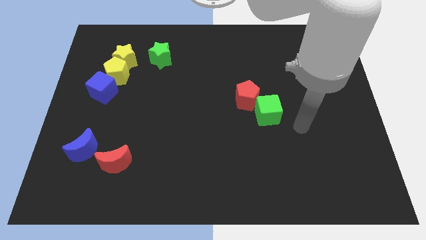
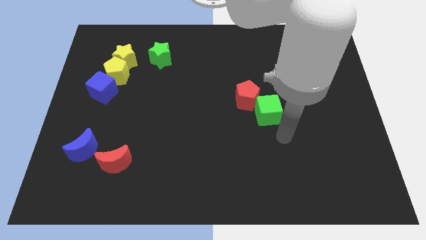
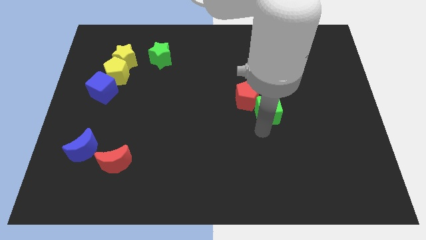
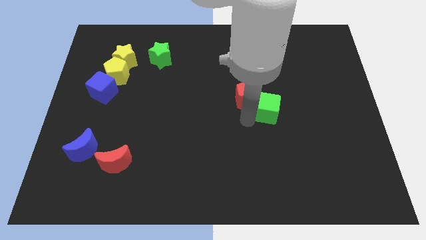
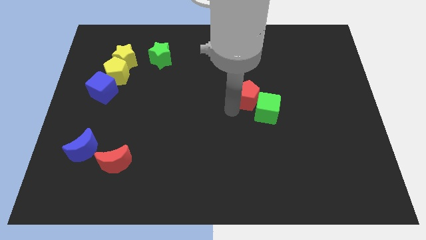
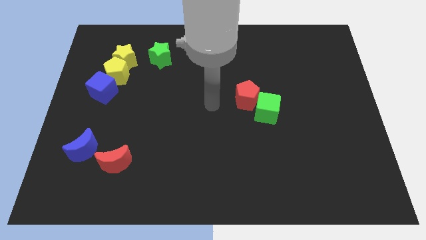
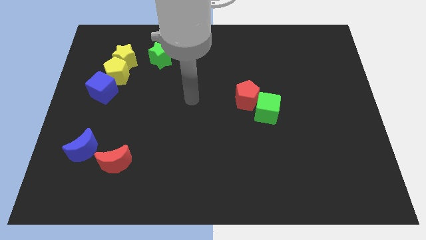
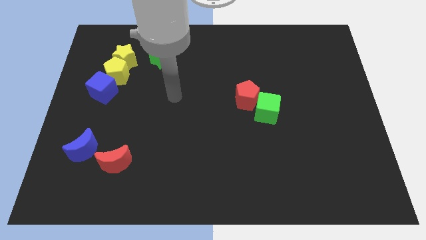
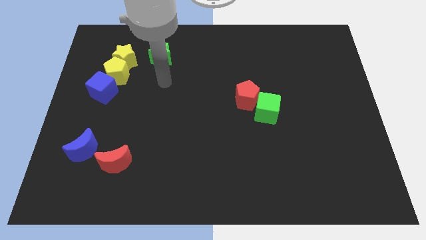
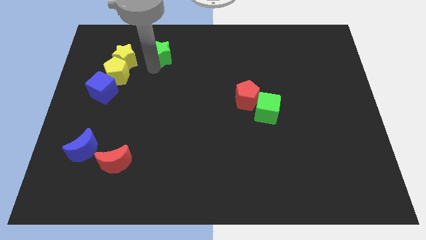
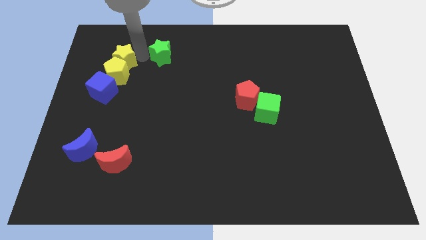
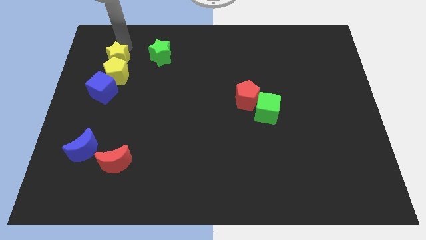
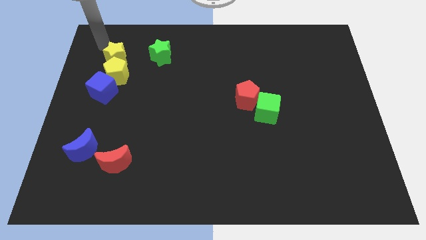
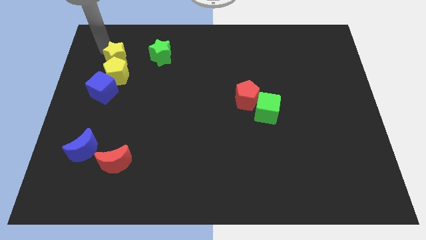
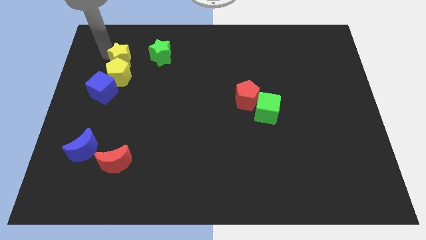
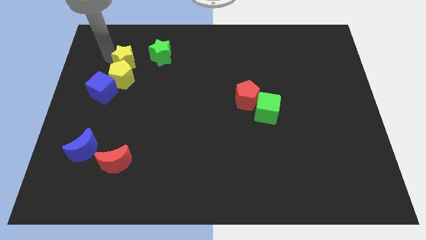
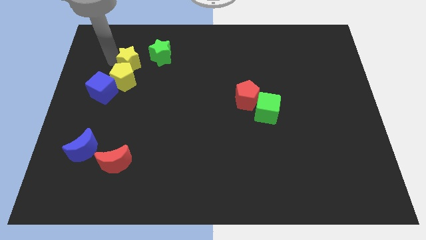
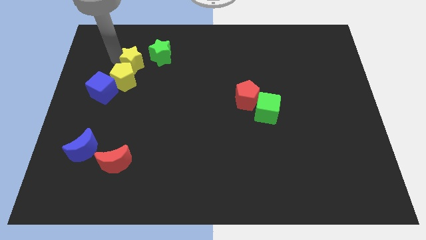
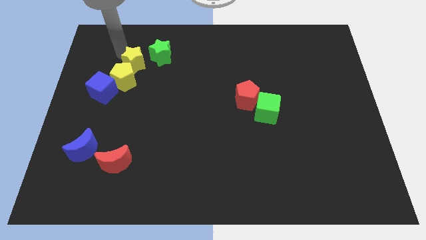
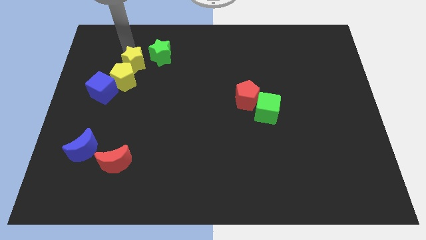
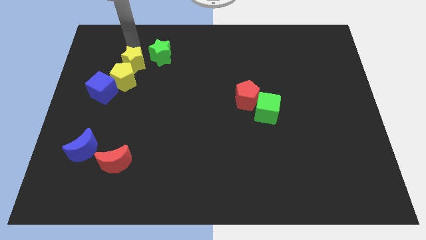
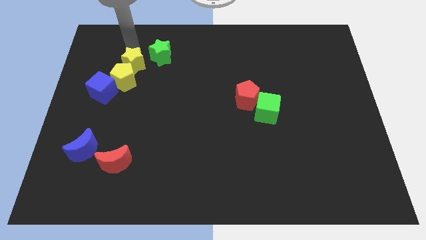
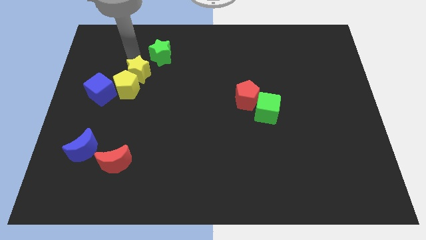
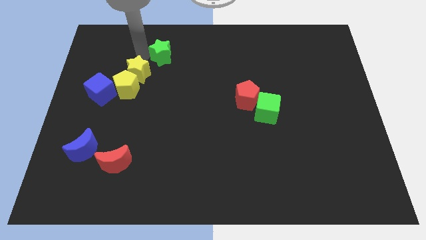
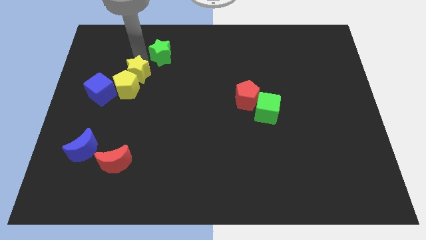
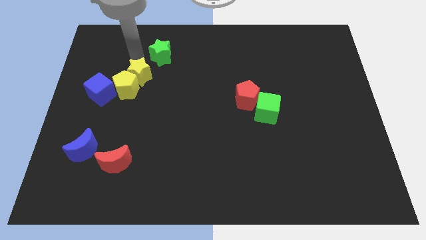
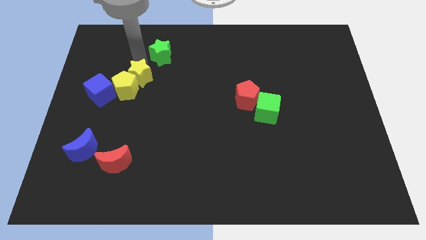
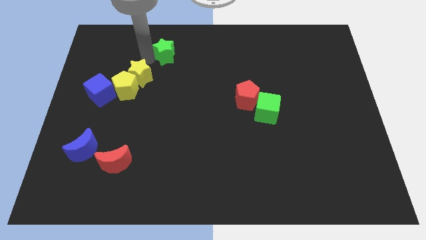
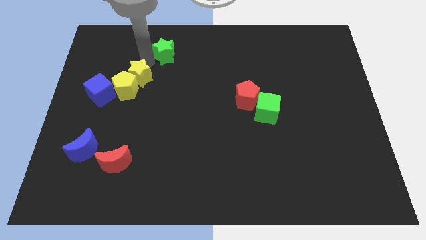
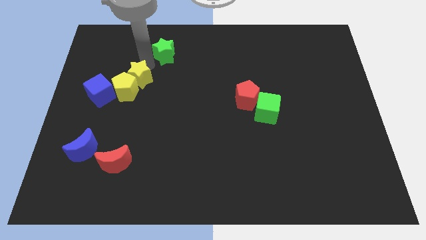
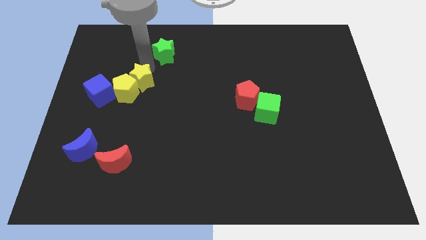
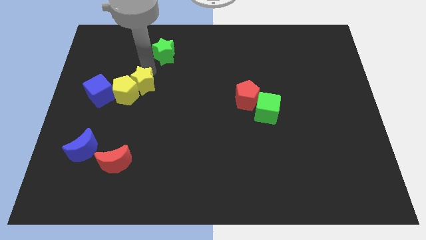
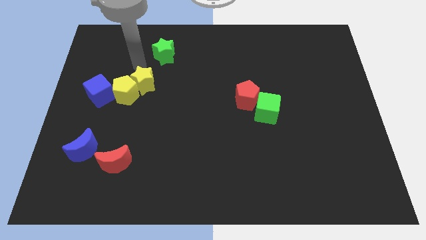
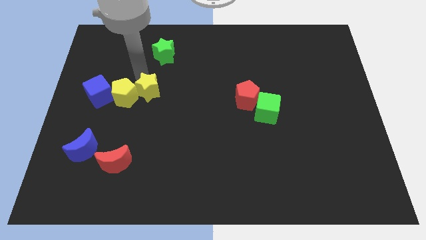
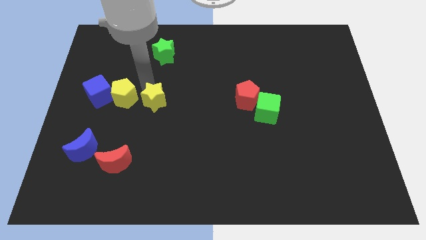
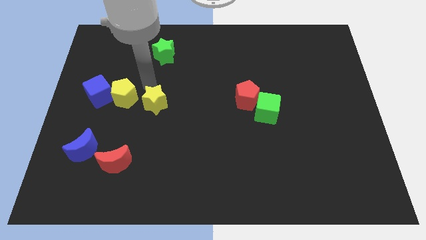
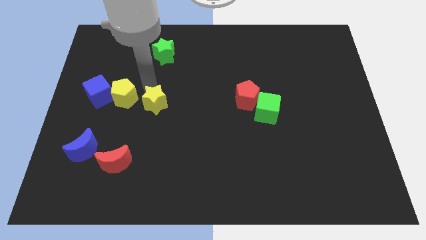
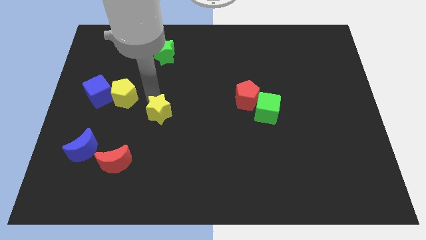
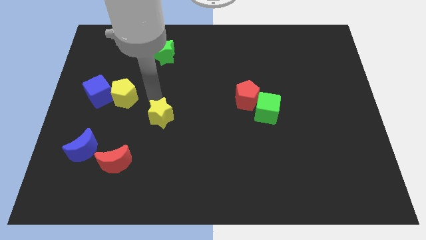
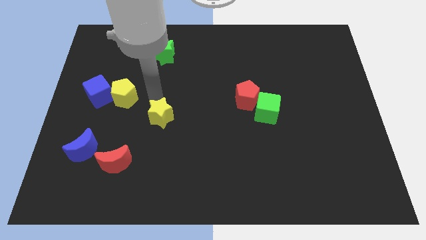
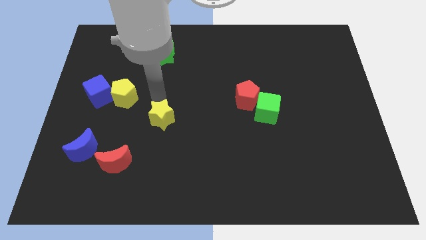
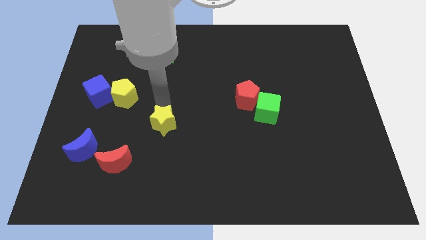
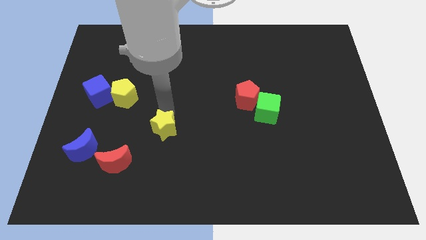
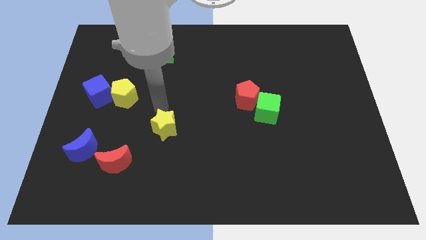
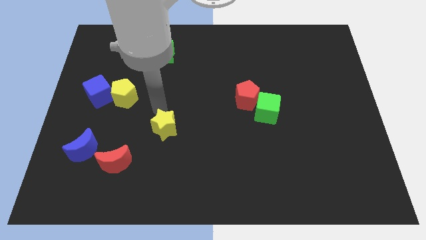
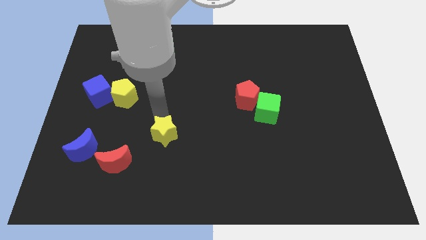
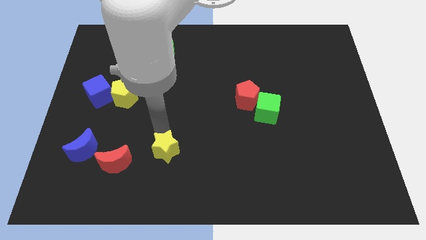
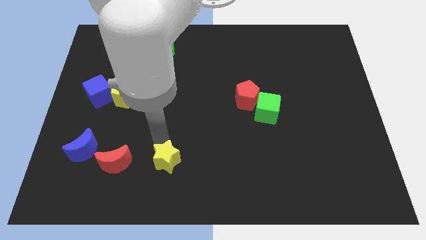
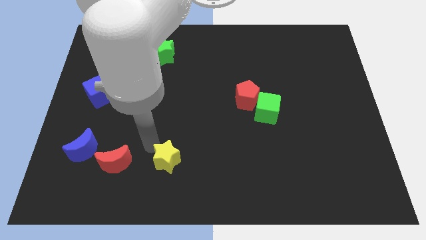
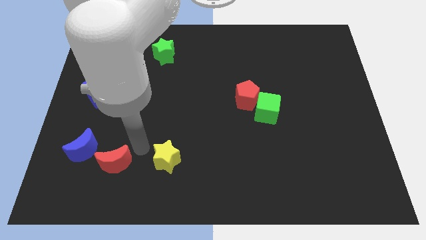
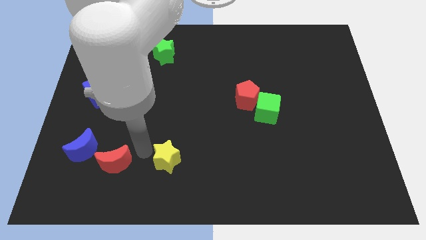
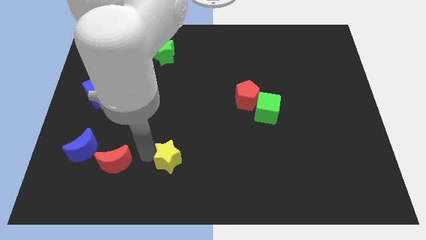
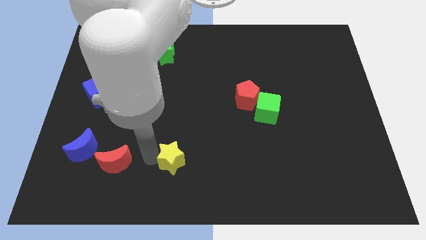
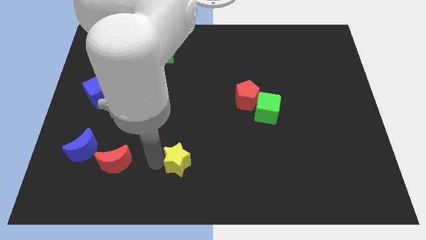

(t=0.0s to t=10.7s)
put the yellow star to the bottom side

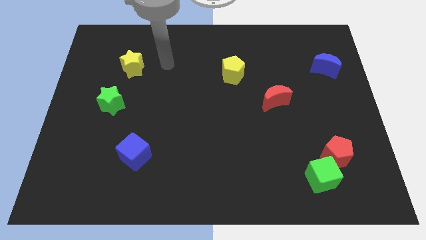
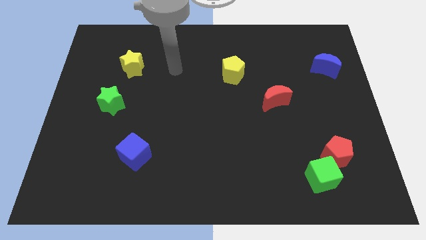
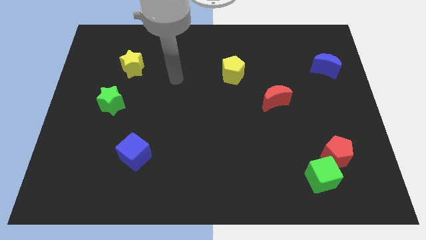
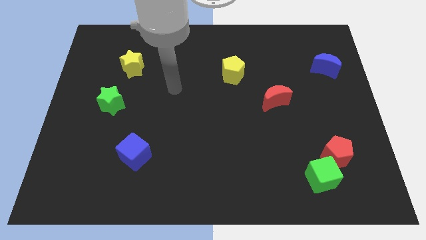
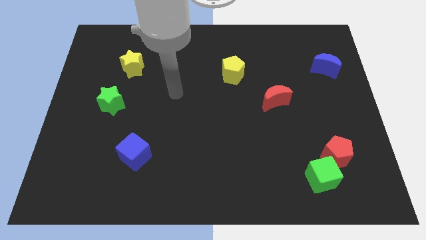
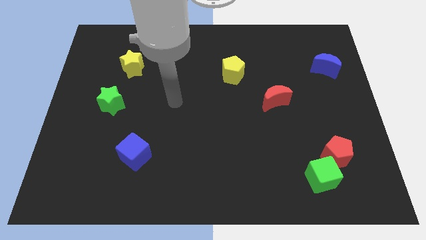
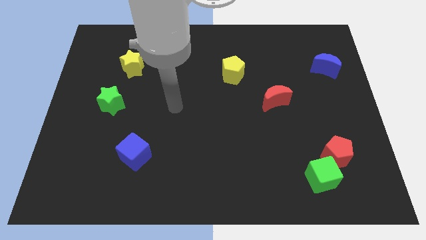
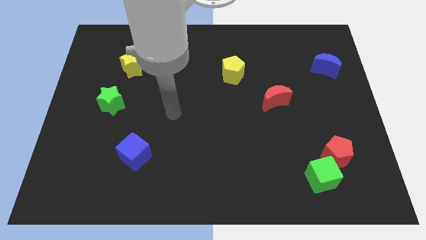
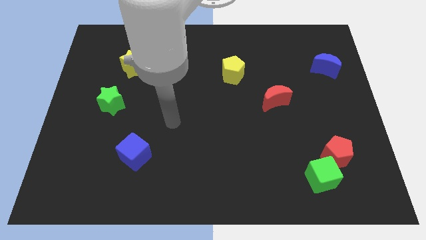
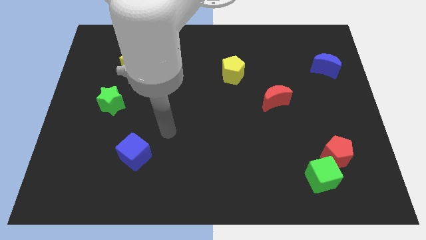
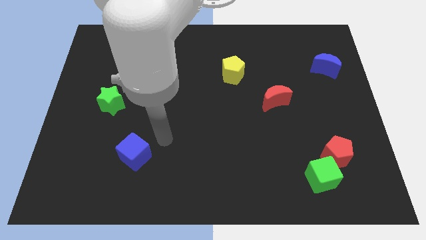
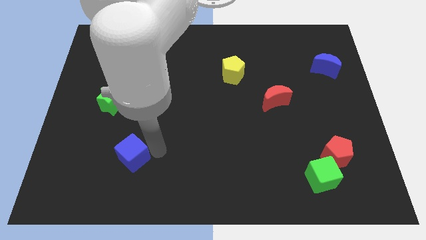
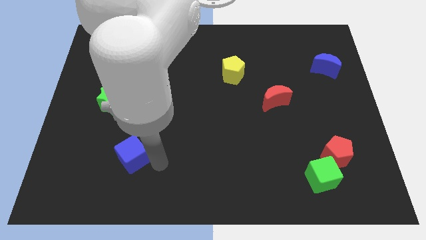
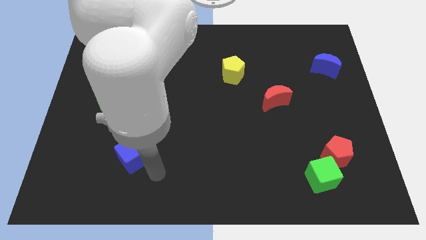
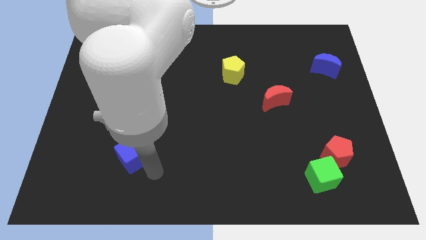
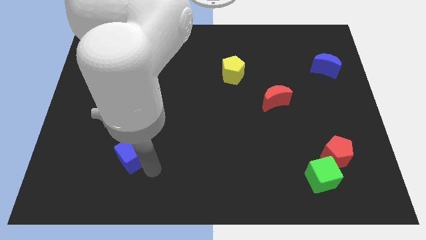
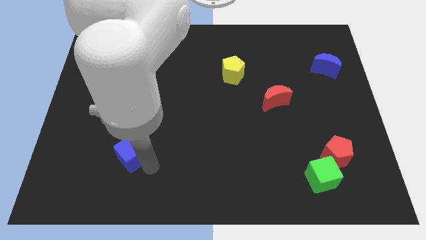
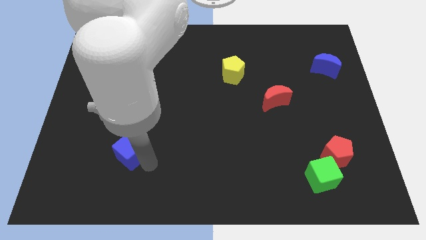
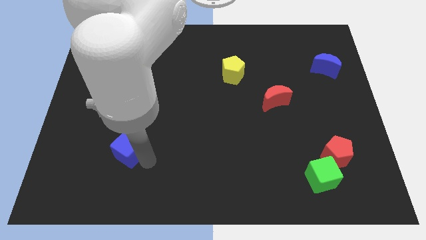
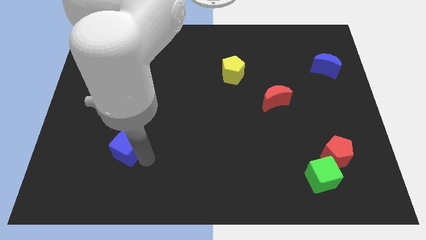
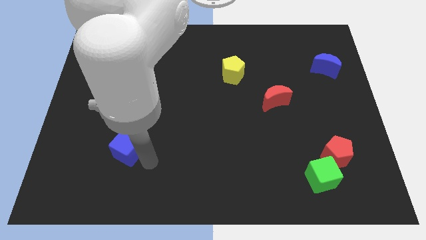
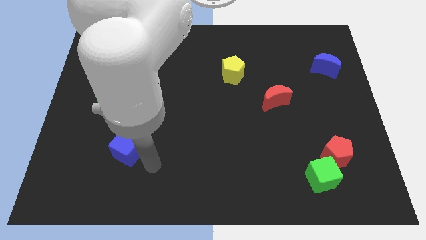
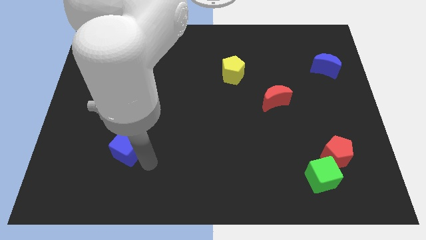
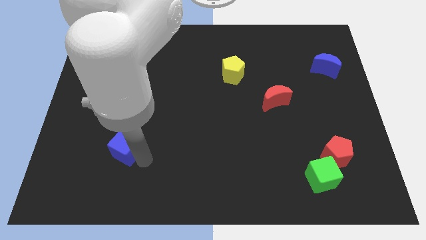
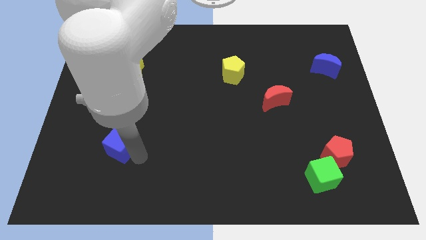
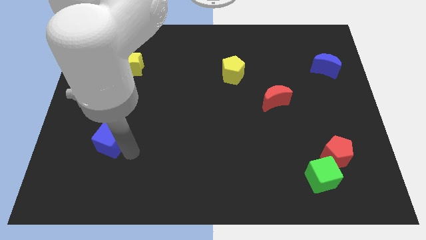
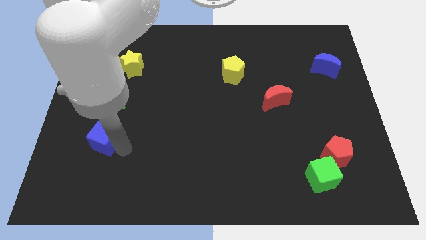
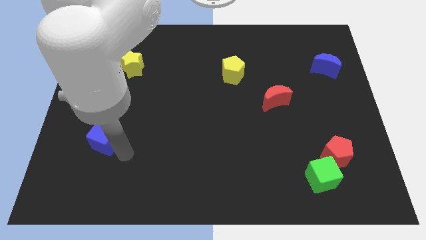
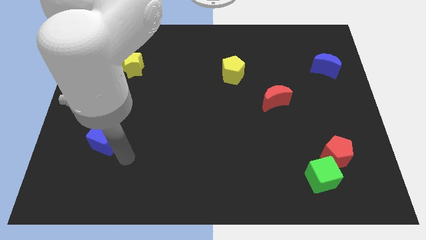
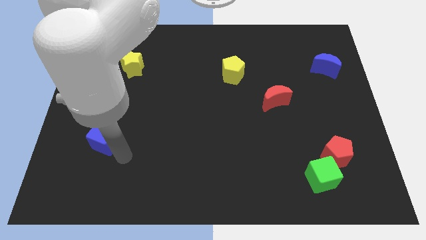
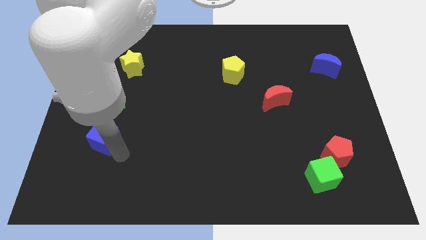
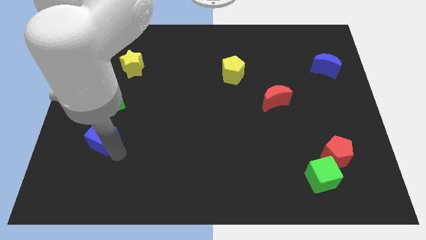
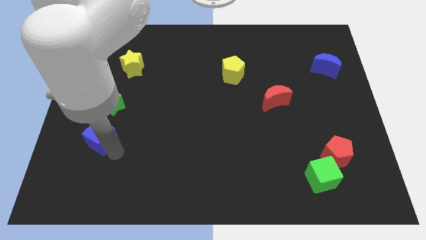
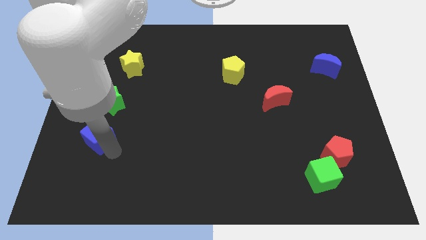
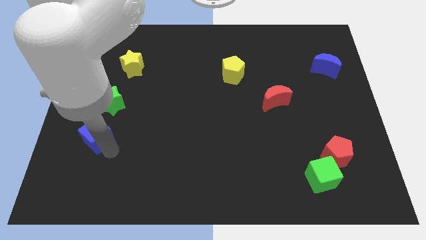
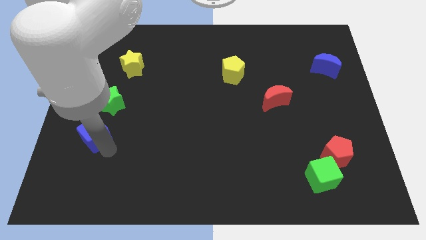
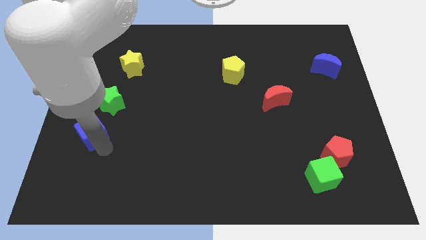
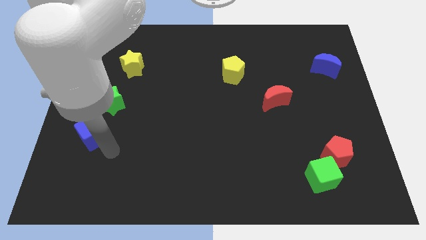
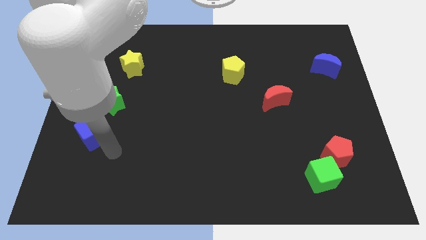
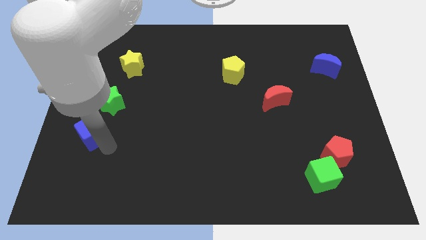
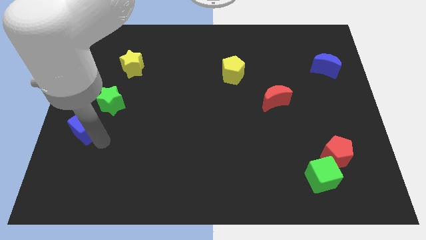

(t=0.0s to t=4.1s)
slide the blue cube to the left side of the board
